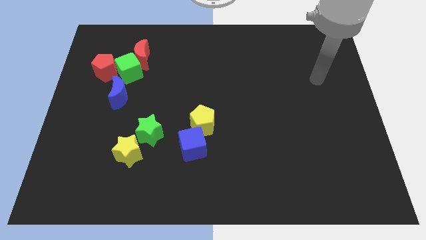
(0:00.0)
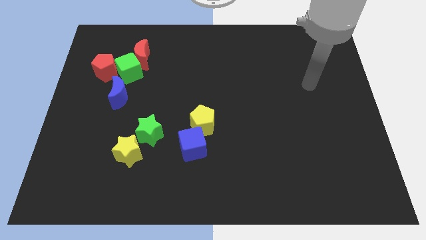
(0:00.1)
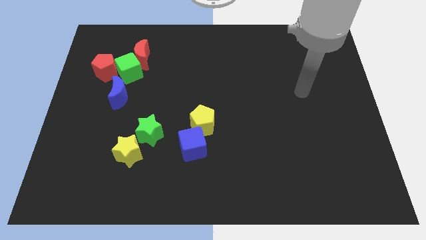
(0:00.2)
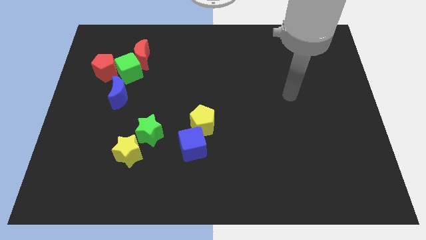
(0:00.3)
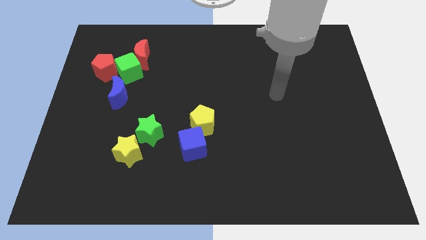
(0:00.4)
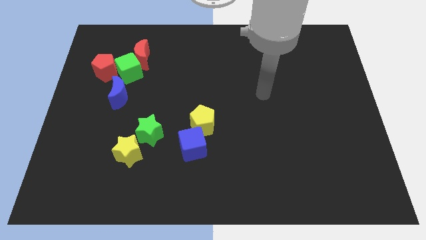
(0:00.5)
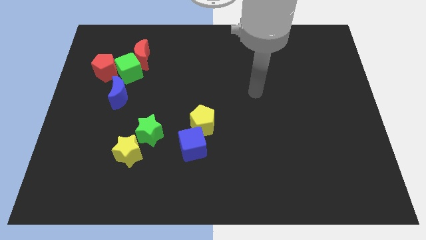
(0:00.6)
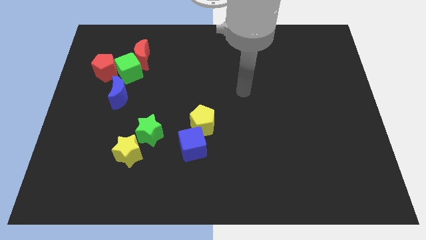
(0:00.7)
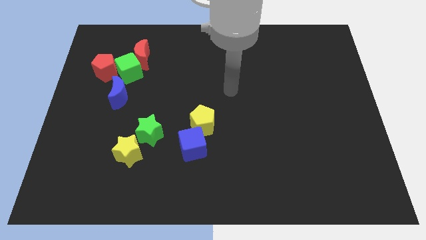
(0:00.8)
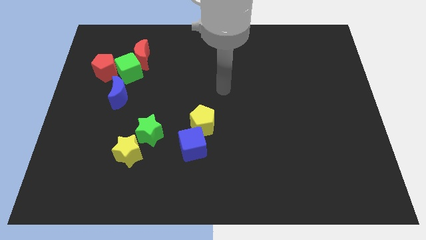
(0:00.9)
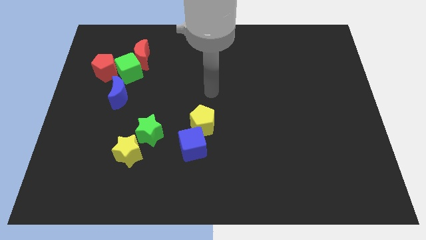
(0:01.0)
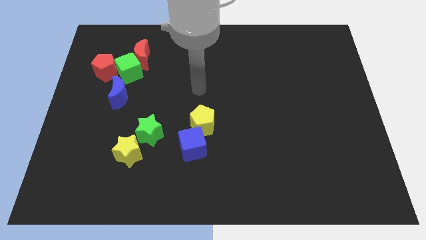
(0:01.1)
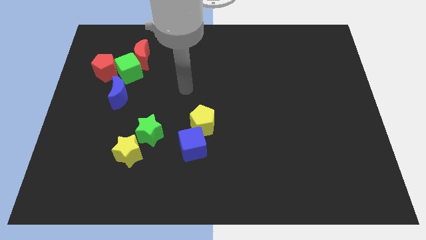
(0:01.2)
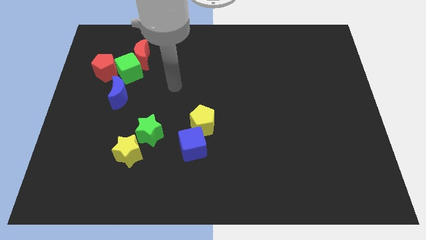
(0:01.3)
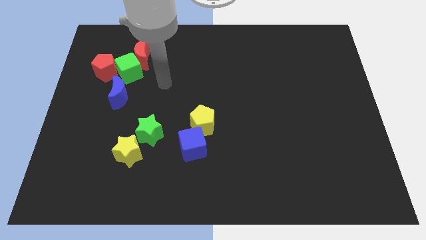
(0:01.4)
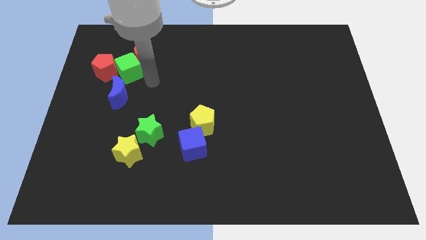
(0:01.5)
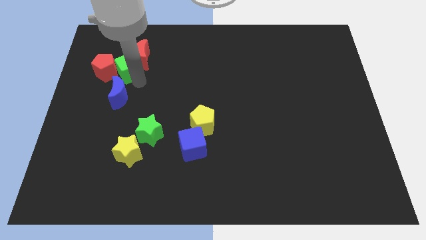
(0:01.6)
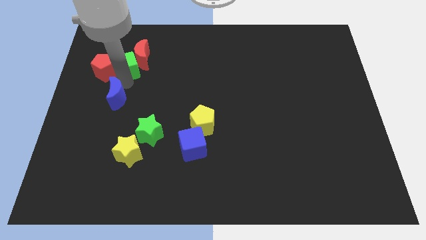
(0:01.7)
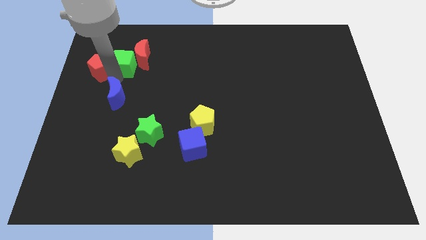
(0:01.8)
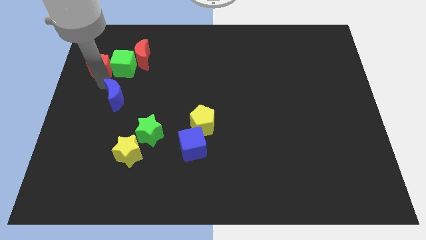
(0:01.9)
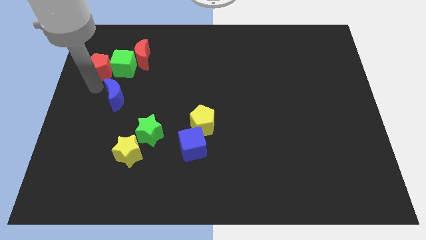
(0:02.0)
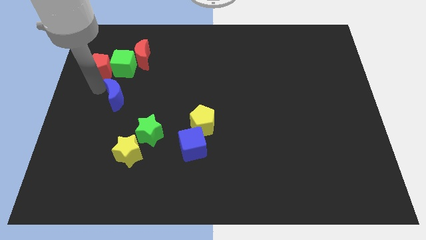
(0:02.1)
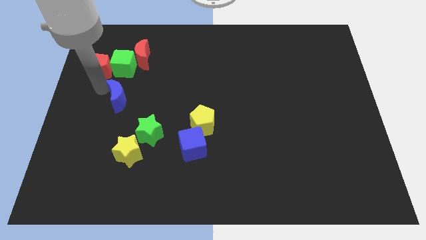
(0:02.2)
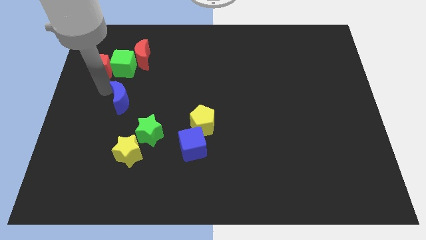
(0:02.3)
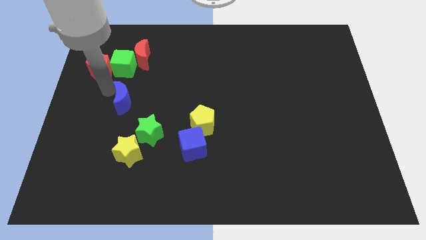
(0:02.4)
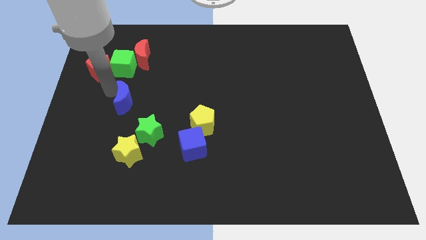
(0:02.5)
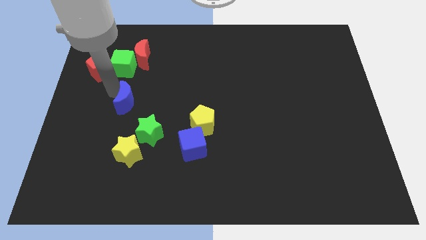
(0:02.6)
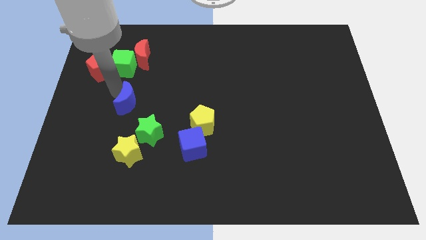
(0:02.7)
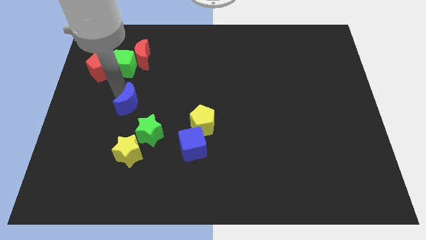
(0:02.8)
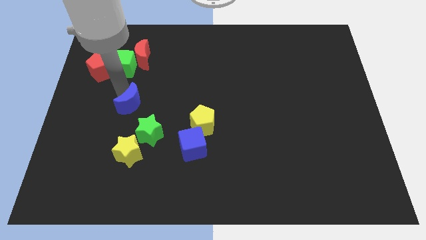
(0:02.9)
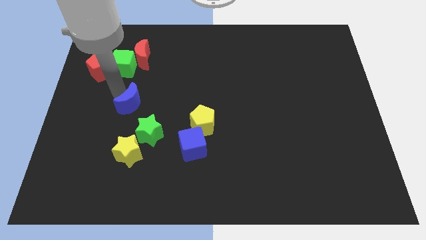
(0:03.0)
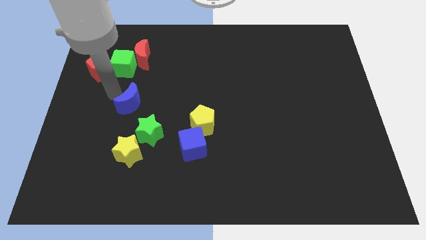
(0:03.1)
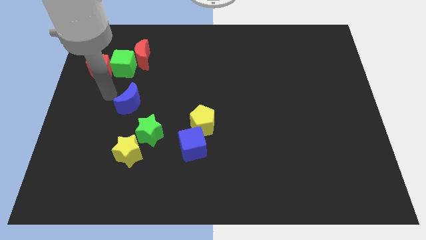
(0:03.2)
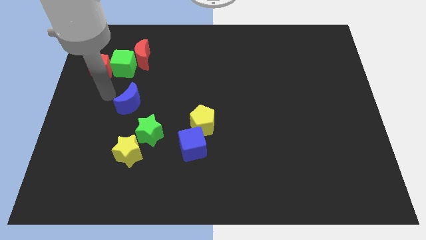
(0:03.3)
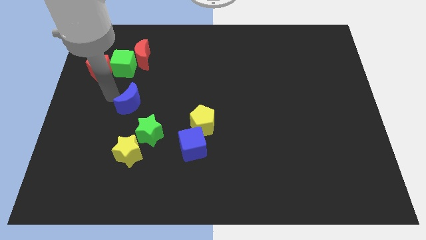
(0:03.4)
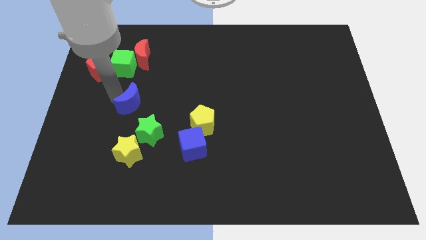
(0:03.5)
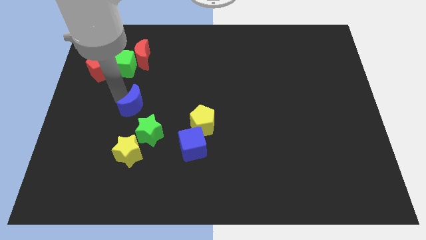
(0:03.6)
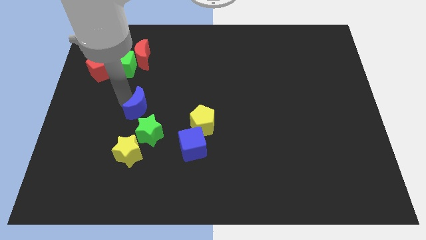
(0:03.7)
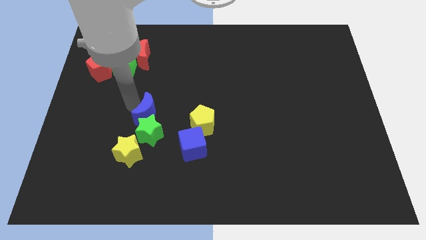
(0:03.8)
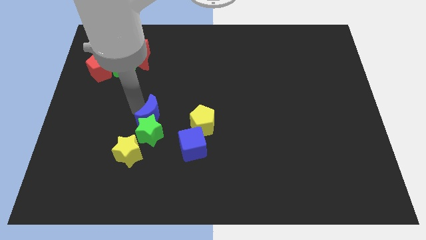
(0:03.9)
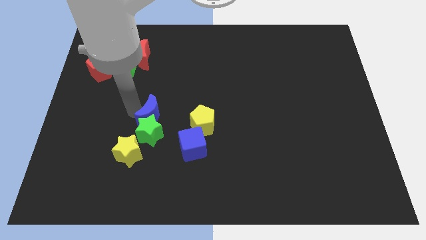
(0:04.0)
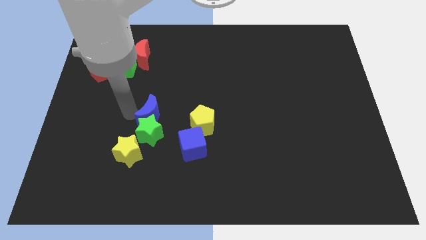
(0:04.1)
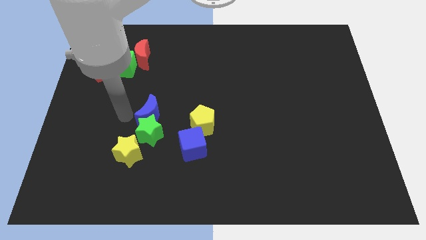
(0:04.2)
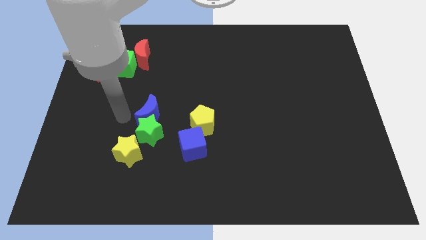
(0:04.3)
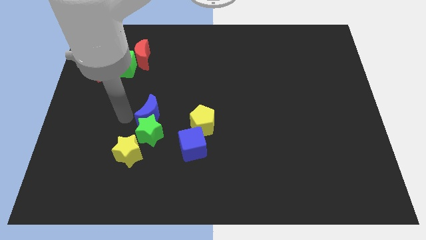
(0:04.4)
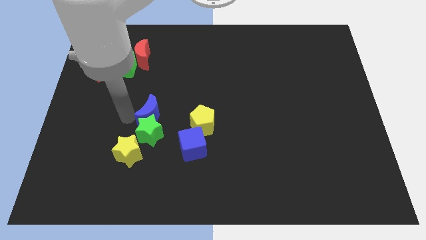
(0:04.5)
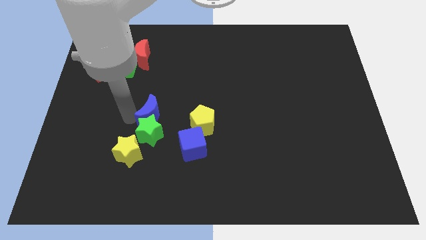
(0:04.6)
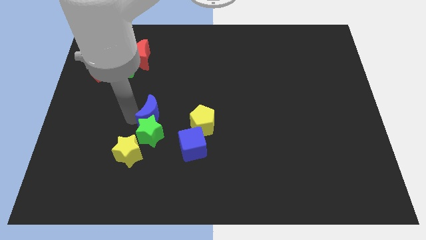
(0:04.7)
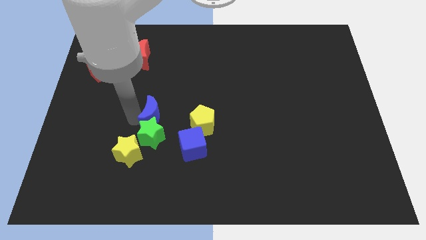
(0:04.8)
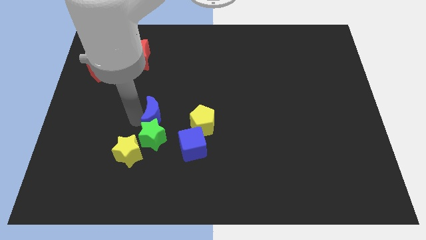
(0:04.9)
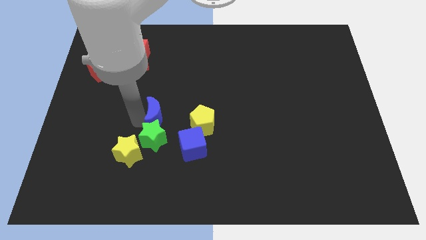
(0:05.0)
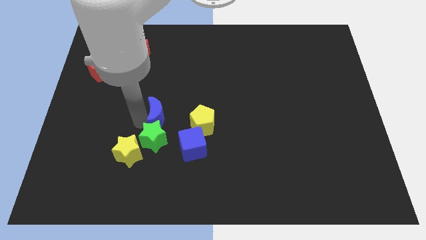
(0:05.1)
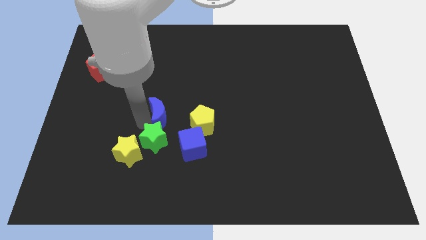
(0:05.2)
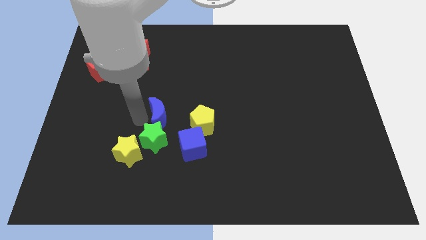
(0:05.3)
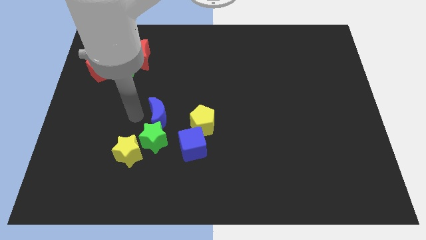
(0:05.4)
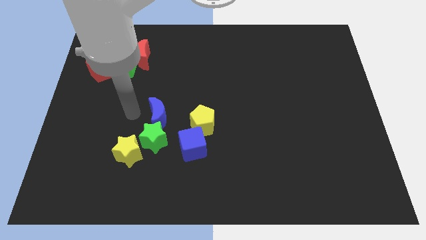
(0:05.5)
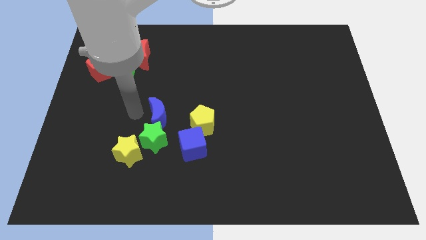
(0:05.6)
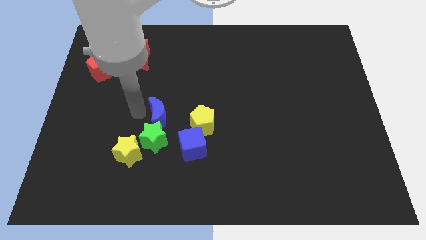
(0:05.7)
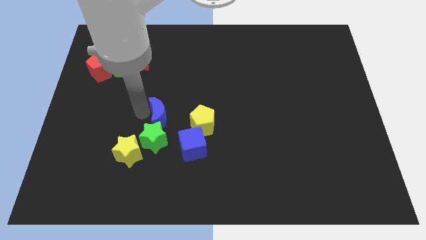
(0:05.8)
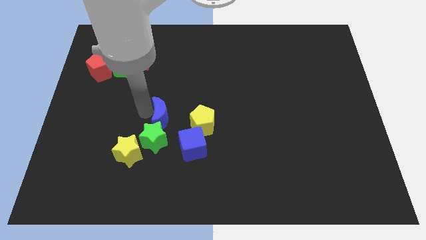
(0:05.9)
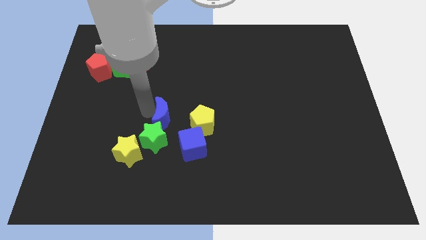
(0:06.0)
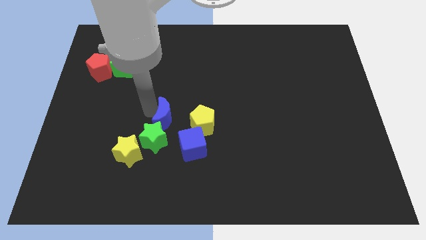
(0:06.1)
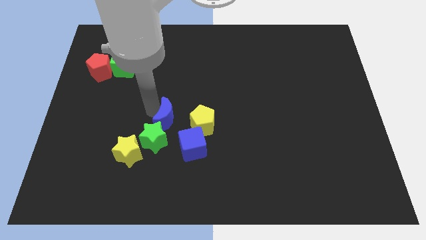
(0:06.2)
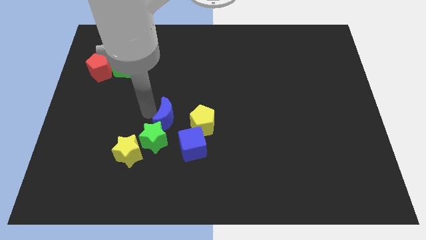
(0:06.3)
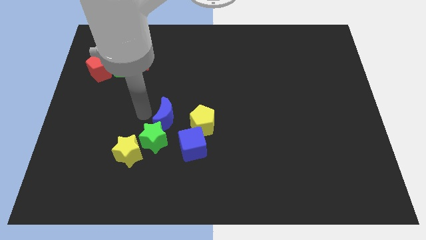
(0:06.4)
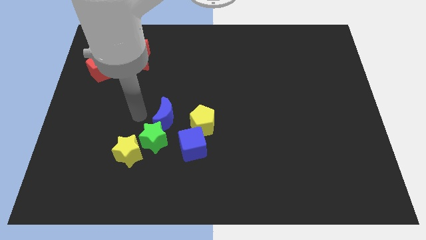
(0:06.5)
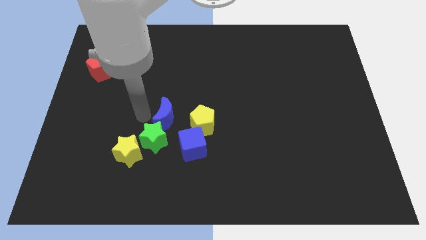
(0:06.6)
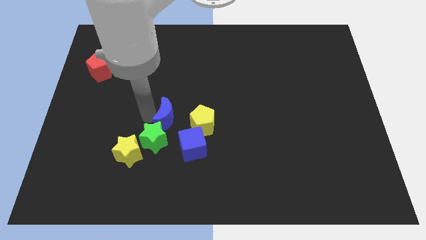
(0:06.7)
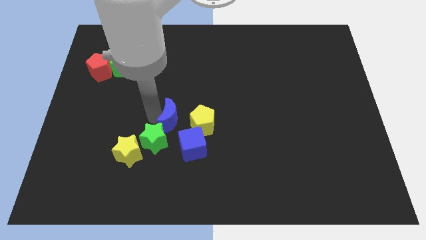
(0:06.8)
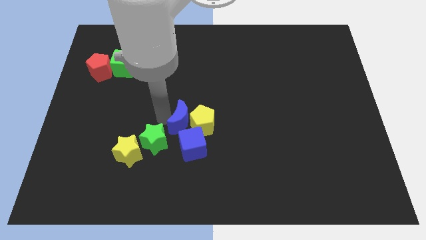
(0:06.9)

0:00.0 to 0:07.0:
move the blue moon to the yellow pentagon

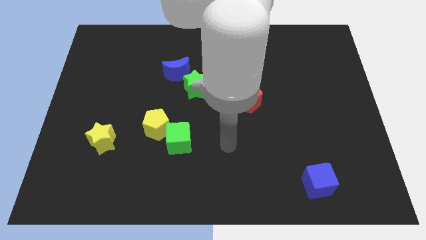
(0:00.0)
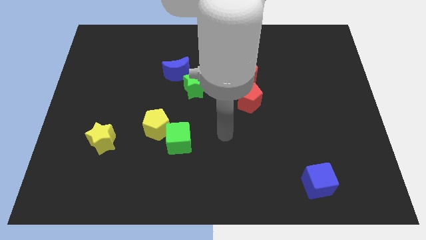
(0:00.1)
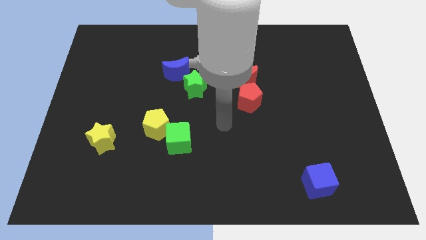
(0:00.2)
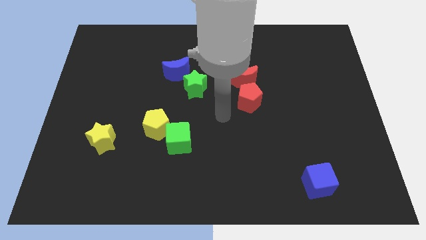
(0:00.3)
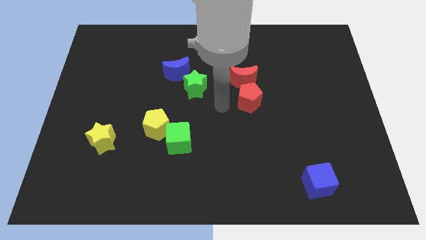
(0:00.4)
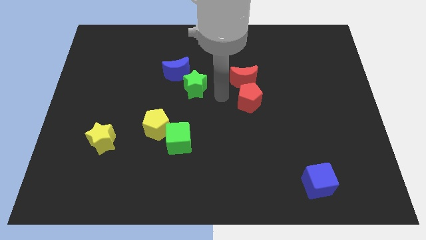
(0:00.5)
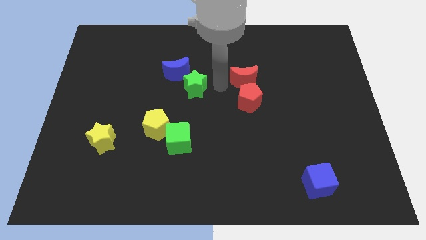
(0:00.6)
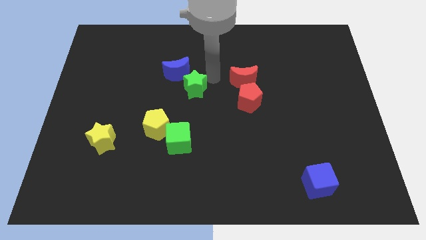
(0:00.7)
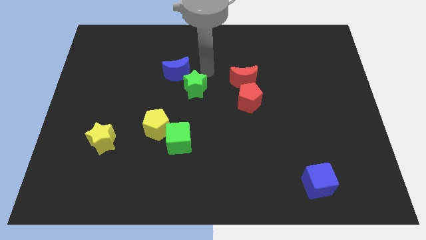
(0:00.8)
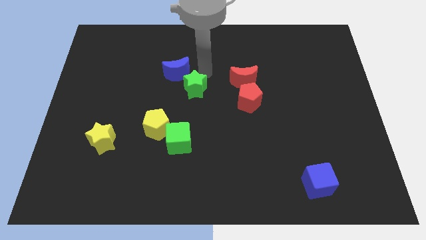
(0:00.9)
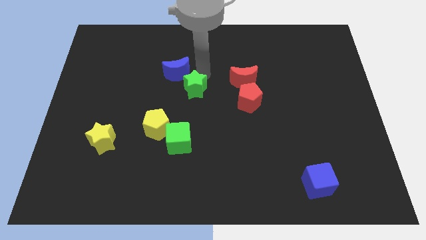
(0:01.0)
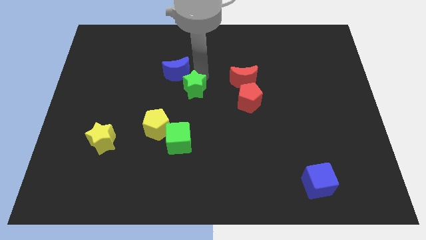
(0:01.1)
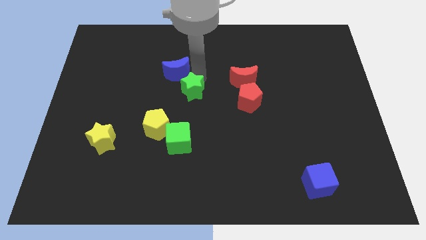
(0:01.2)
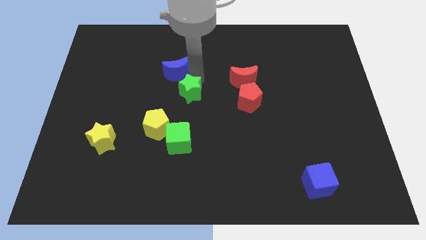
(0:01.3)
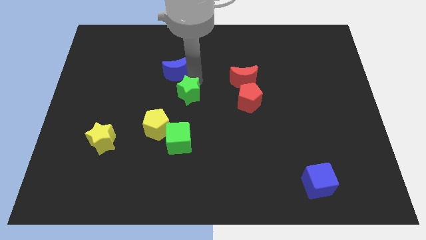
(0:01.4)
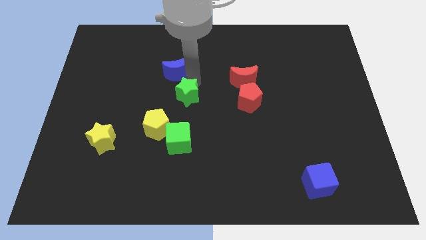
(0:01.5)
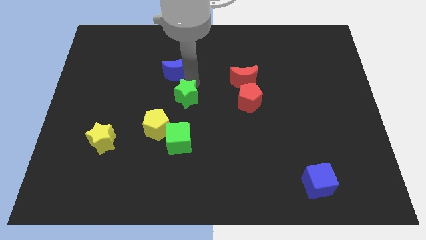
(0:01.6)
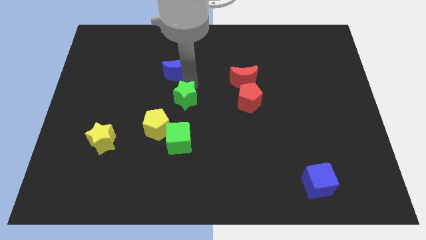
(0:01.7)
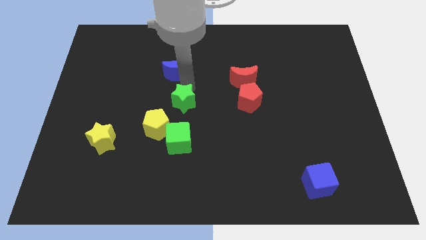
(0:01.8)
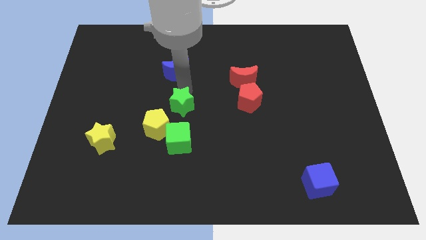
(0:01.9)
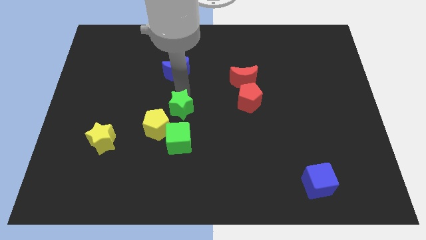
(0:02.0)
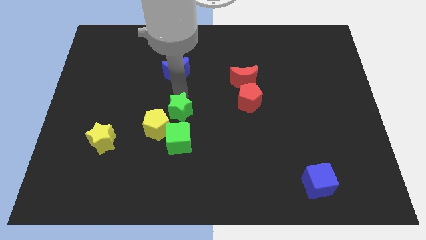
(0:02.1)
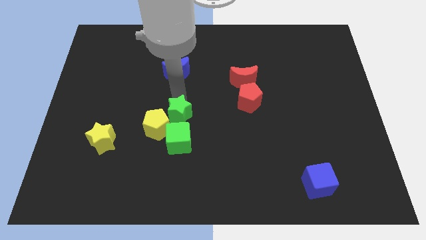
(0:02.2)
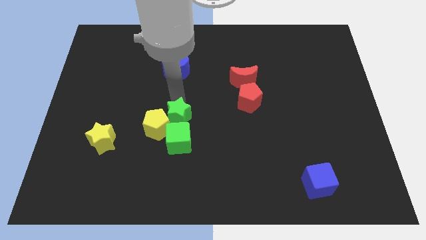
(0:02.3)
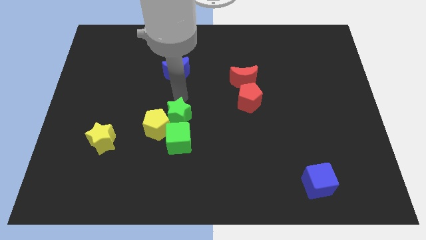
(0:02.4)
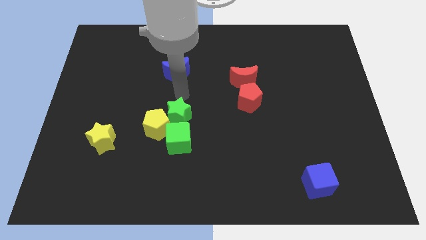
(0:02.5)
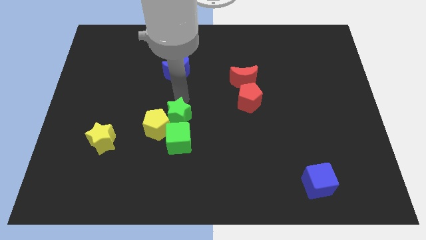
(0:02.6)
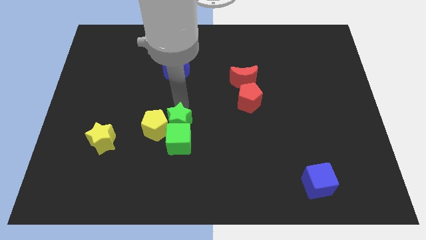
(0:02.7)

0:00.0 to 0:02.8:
push the green star to the green cube
